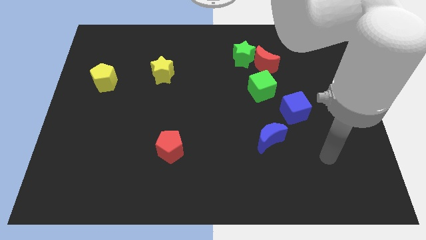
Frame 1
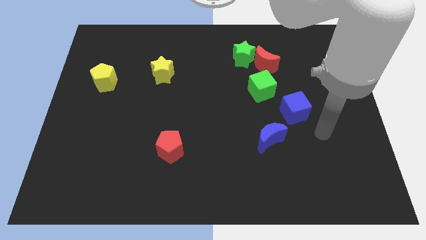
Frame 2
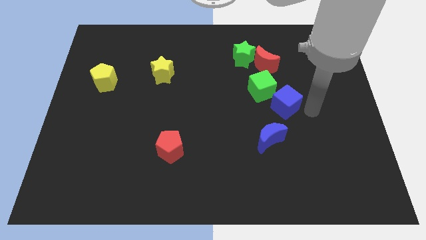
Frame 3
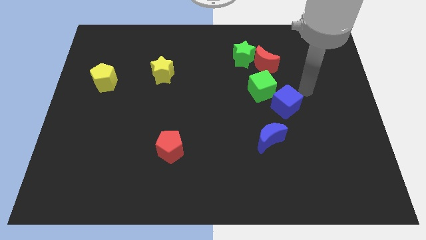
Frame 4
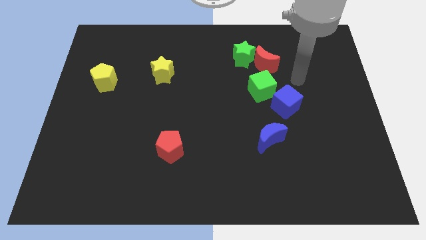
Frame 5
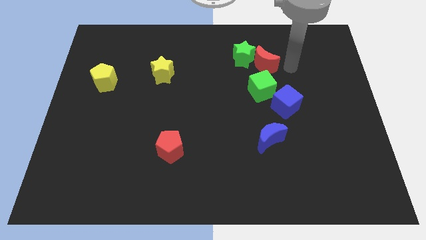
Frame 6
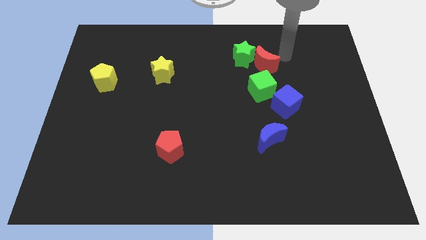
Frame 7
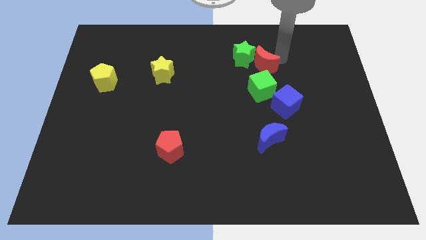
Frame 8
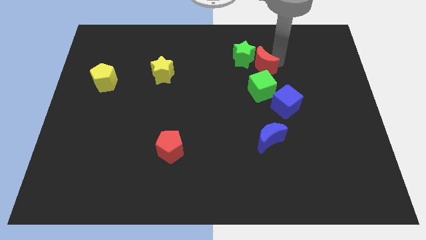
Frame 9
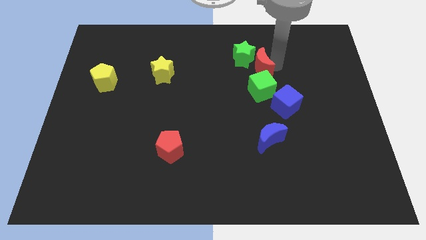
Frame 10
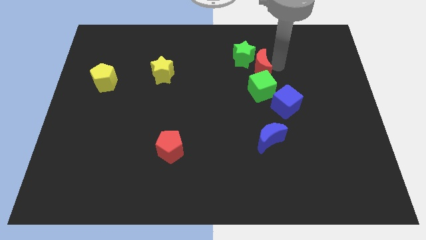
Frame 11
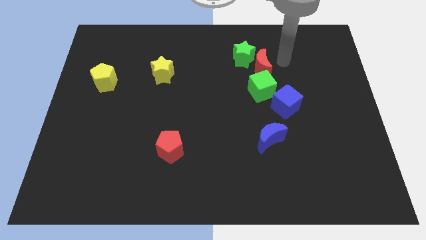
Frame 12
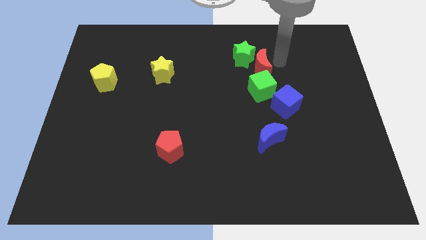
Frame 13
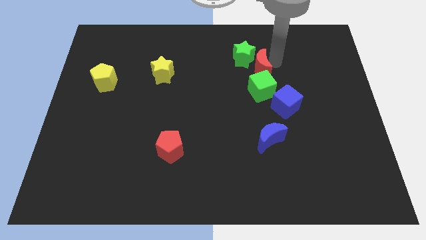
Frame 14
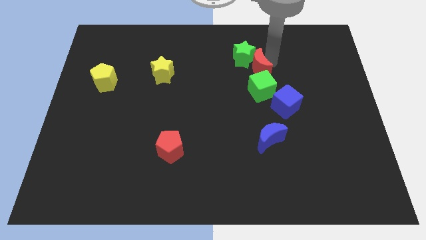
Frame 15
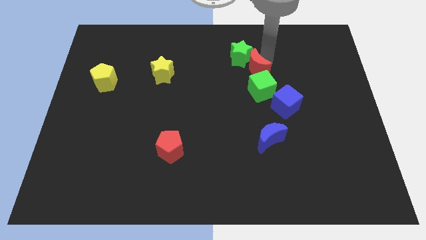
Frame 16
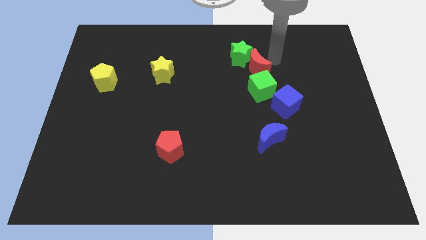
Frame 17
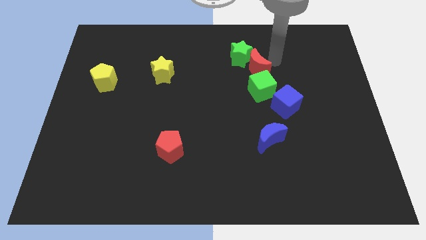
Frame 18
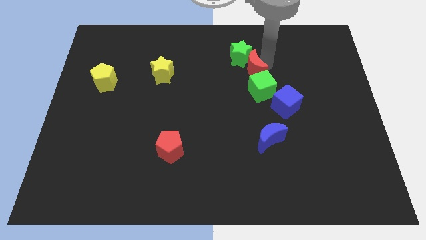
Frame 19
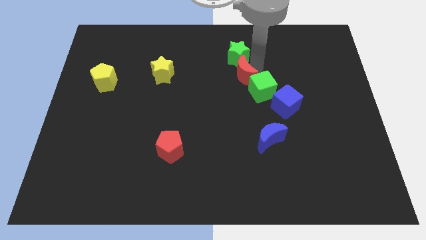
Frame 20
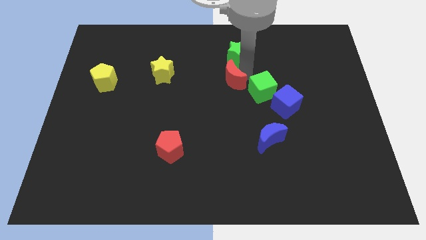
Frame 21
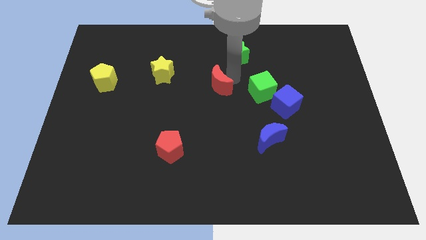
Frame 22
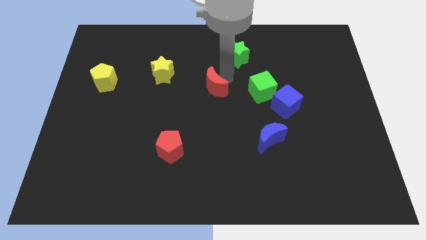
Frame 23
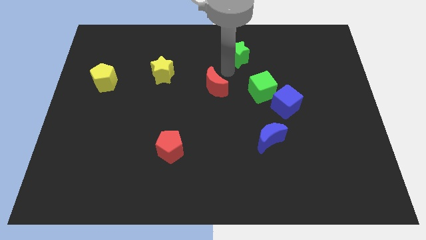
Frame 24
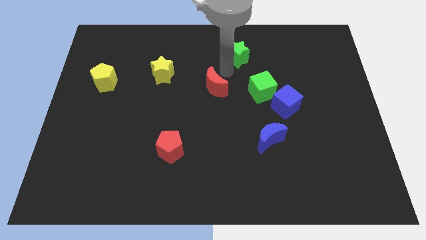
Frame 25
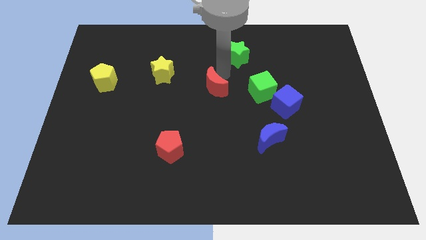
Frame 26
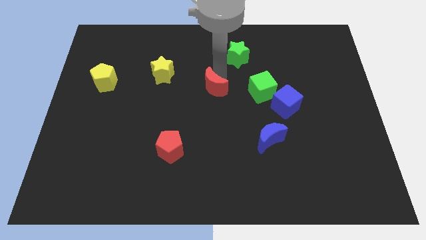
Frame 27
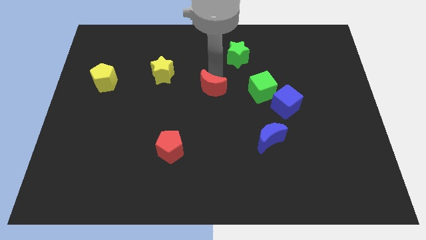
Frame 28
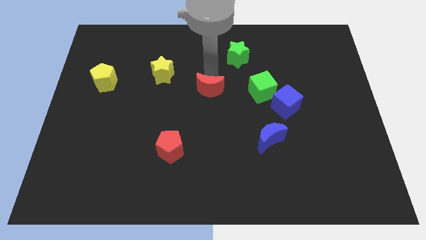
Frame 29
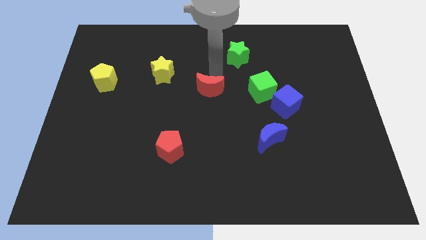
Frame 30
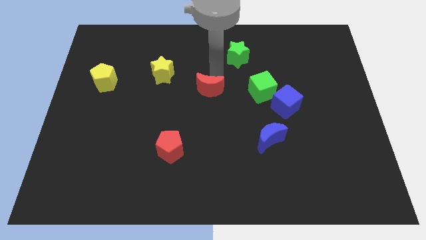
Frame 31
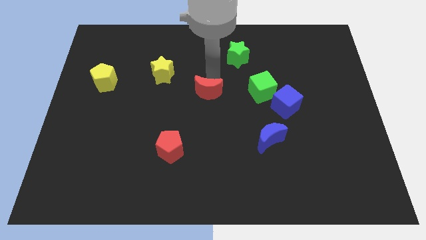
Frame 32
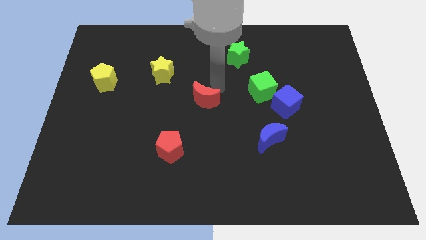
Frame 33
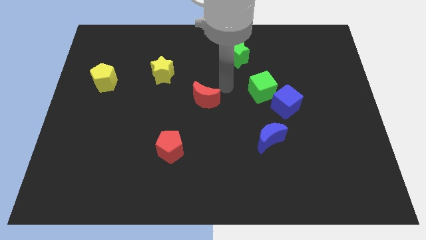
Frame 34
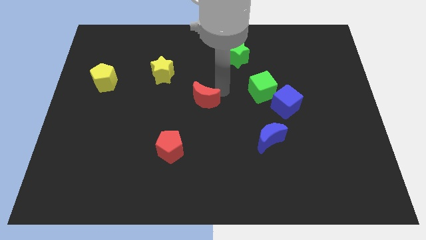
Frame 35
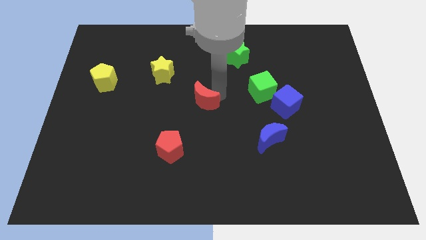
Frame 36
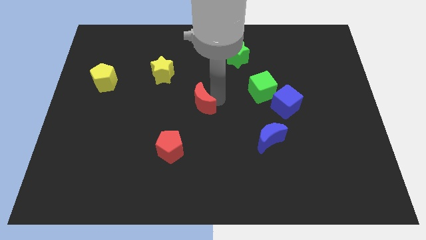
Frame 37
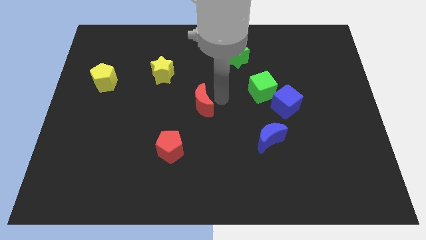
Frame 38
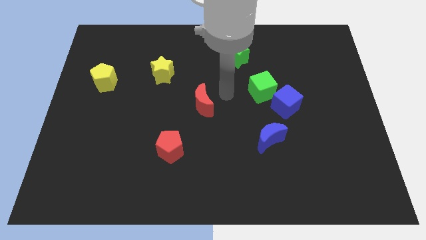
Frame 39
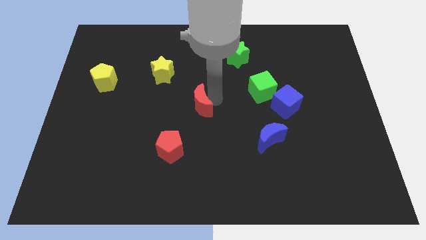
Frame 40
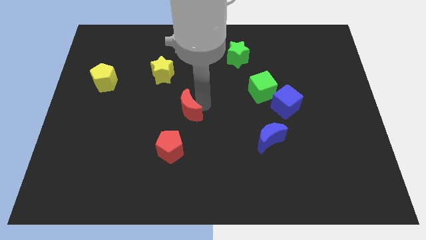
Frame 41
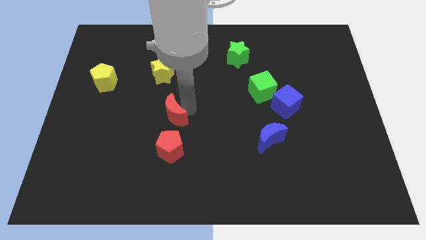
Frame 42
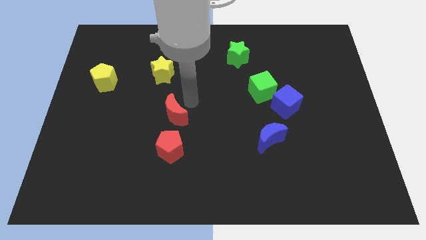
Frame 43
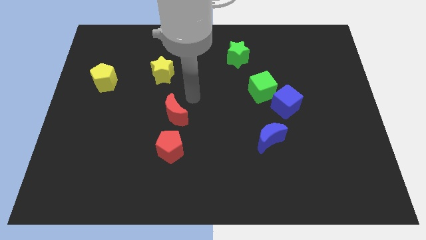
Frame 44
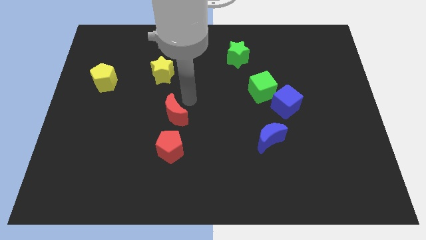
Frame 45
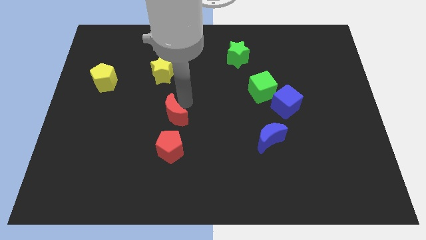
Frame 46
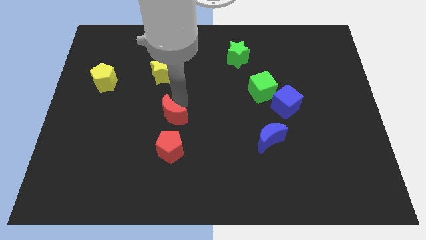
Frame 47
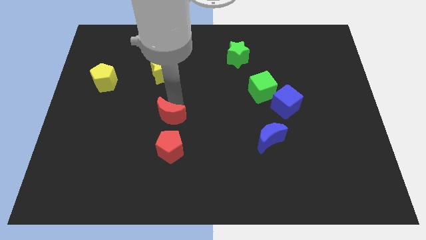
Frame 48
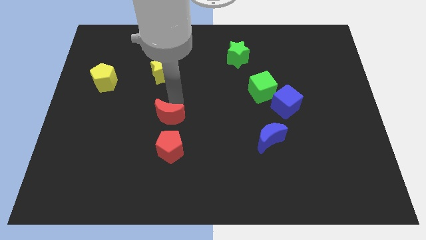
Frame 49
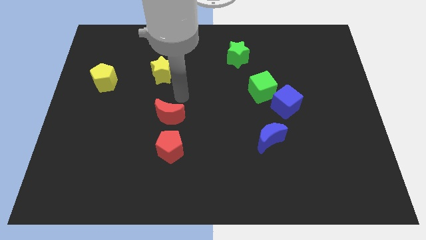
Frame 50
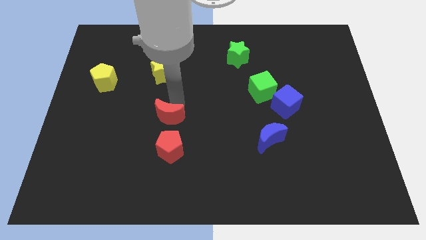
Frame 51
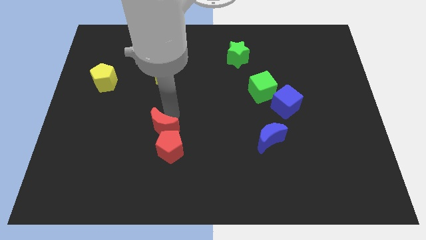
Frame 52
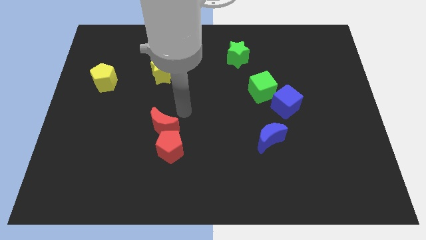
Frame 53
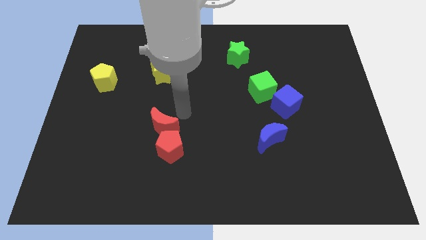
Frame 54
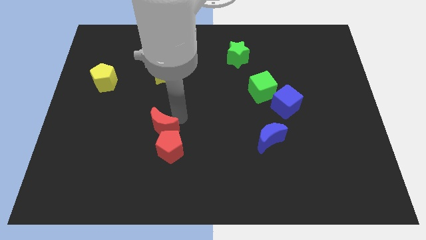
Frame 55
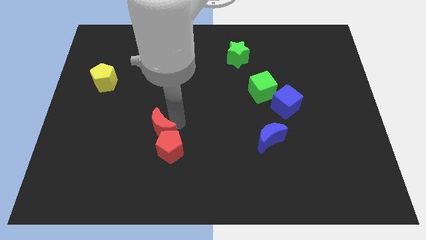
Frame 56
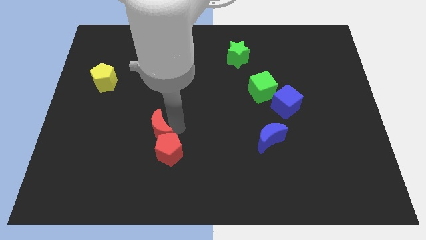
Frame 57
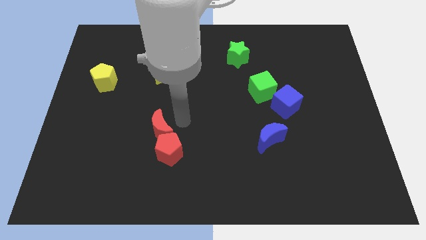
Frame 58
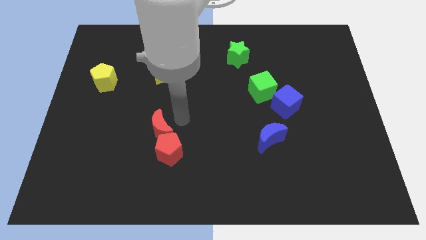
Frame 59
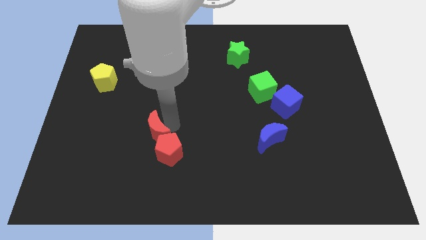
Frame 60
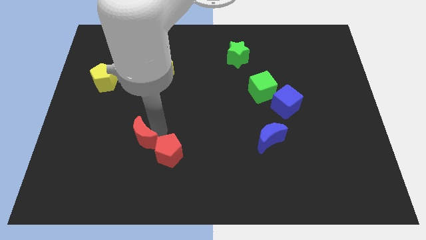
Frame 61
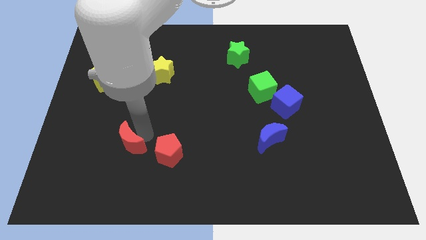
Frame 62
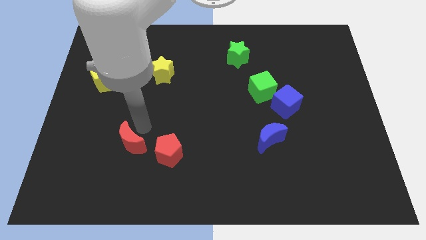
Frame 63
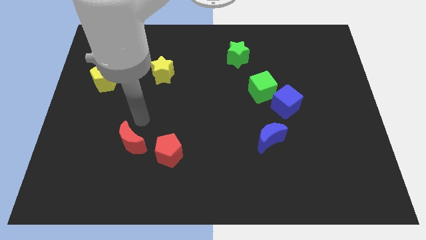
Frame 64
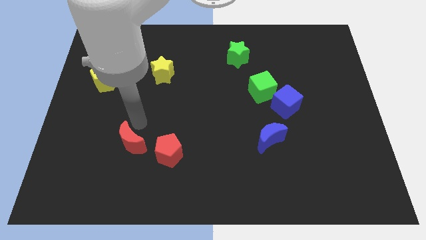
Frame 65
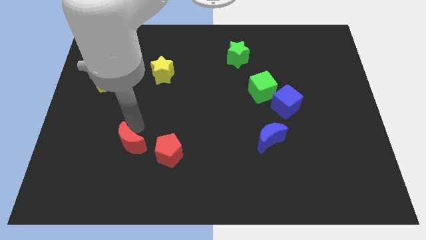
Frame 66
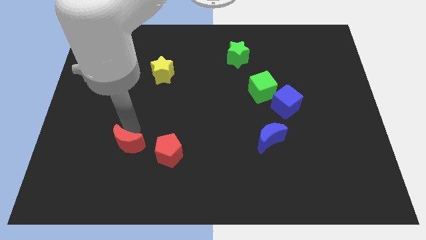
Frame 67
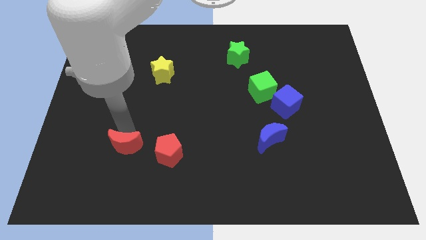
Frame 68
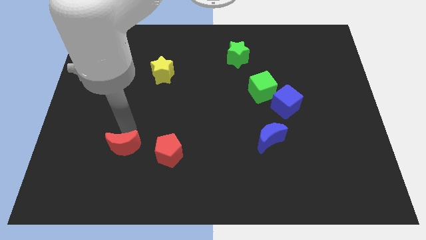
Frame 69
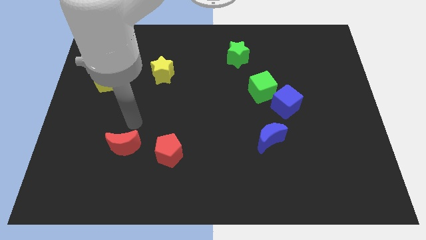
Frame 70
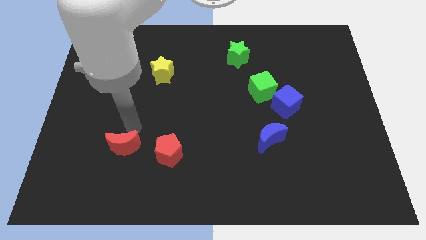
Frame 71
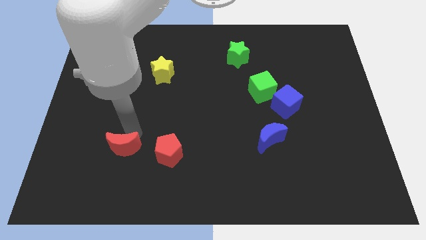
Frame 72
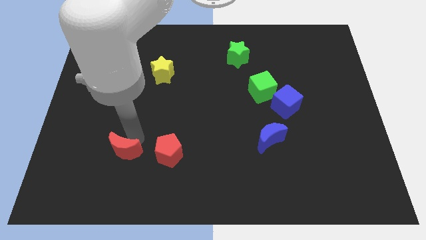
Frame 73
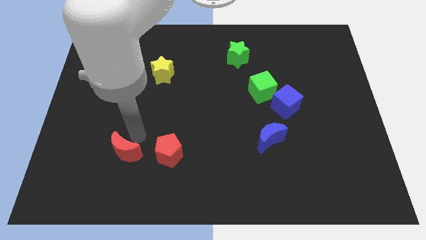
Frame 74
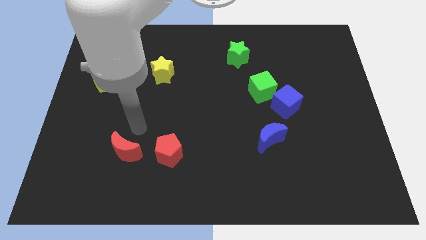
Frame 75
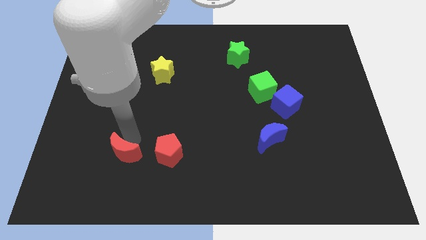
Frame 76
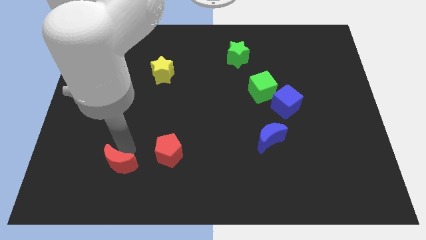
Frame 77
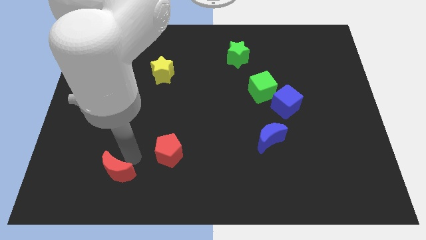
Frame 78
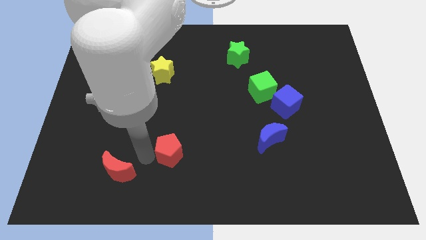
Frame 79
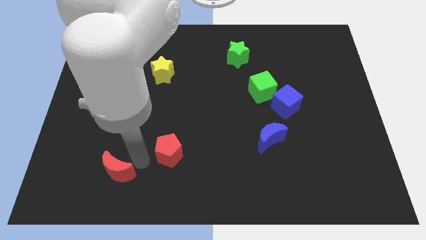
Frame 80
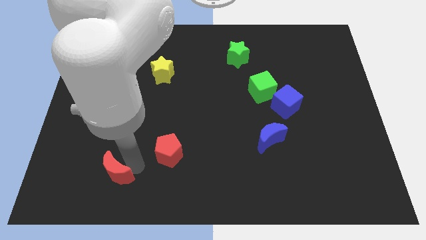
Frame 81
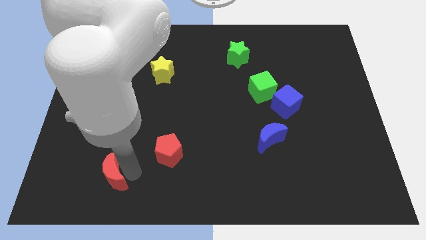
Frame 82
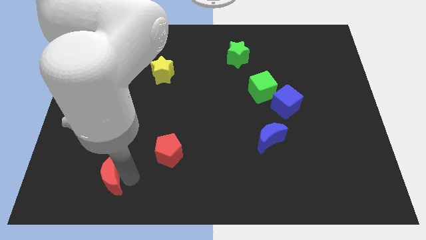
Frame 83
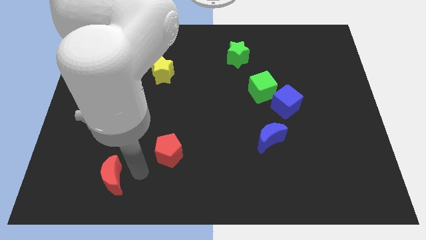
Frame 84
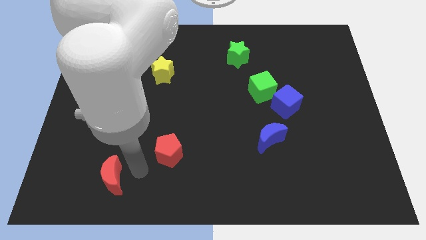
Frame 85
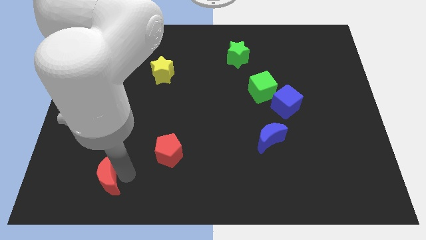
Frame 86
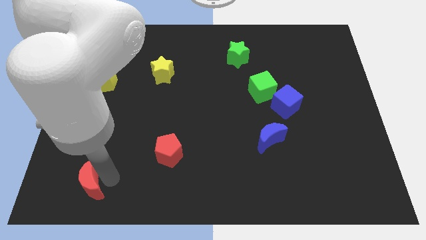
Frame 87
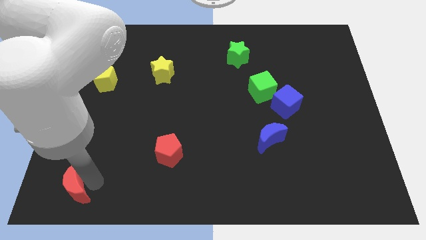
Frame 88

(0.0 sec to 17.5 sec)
move the red moon to the bottom left
